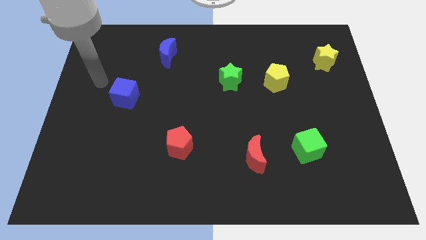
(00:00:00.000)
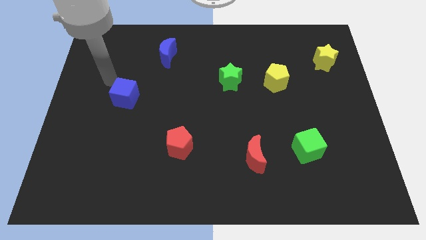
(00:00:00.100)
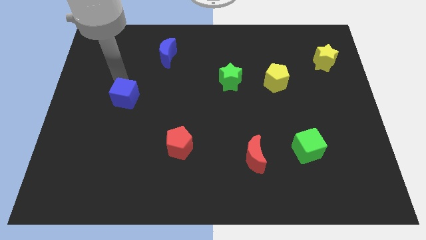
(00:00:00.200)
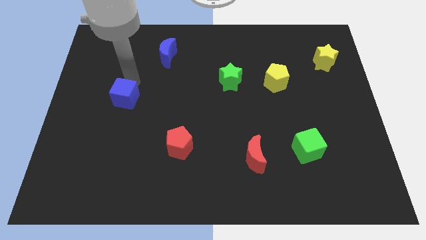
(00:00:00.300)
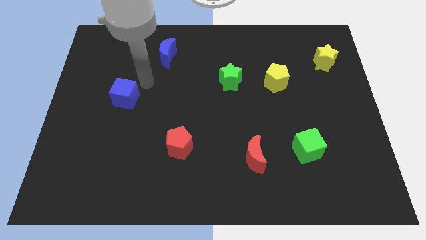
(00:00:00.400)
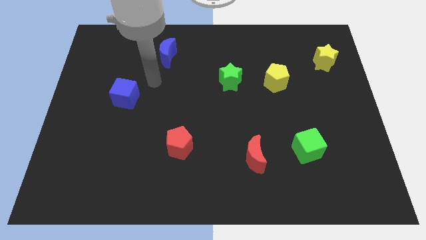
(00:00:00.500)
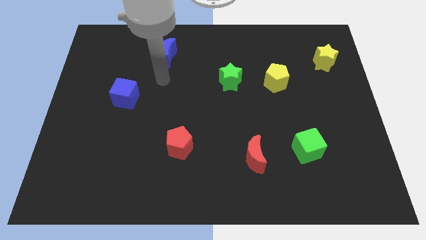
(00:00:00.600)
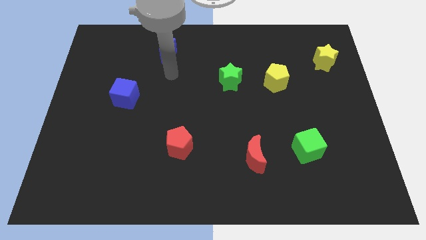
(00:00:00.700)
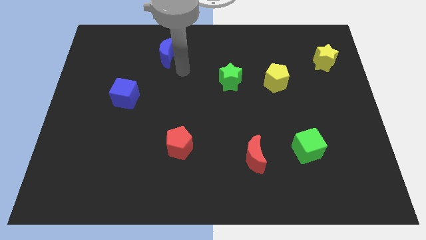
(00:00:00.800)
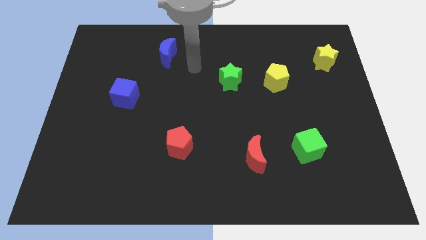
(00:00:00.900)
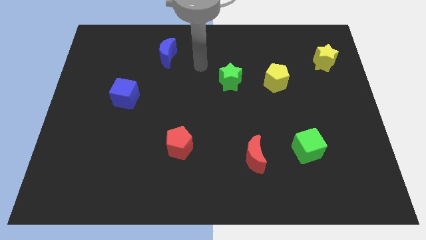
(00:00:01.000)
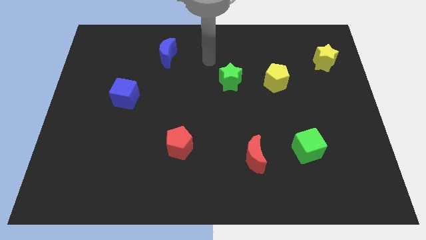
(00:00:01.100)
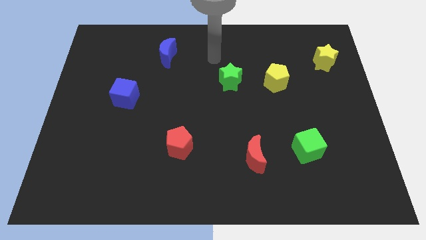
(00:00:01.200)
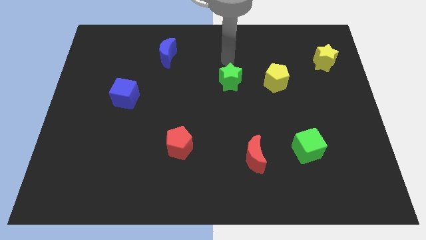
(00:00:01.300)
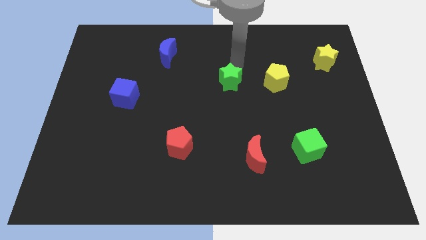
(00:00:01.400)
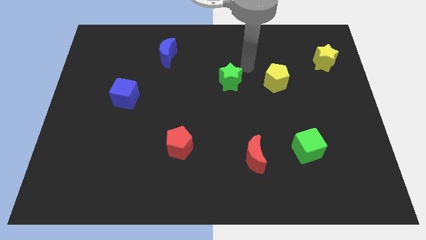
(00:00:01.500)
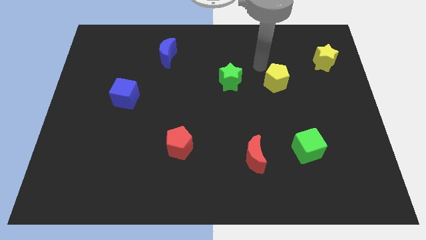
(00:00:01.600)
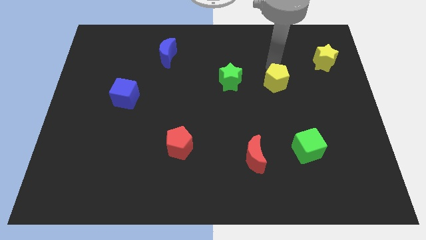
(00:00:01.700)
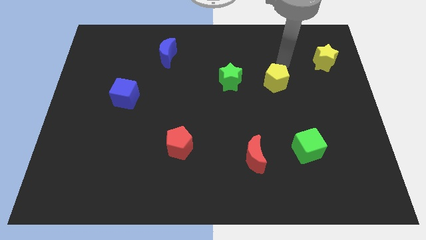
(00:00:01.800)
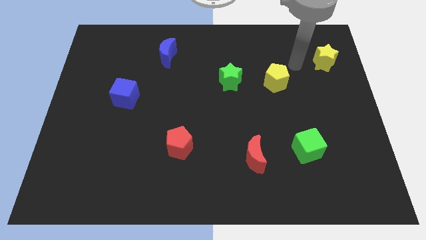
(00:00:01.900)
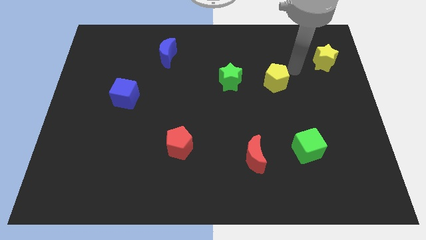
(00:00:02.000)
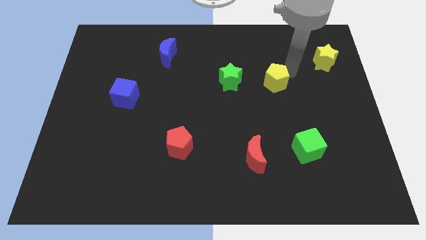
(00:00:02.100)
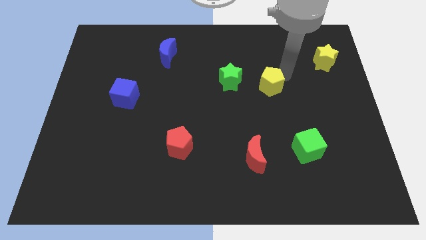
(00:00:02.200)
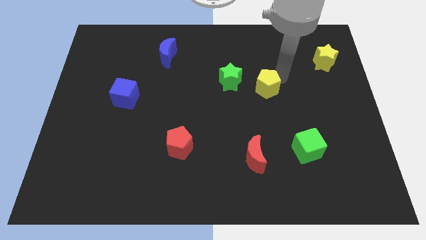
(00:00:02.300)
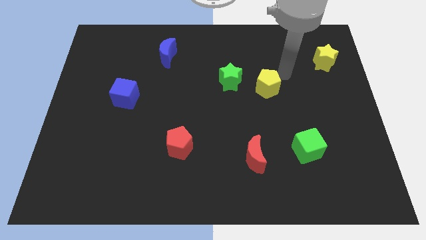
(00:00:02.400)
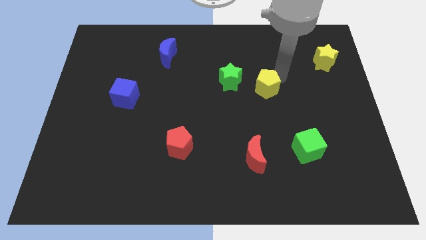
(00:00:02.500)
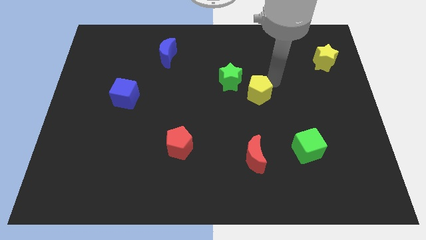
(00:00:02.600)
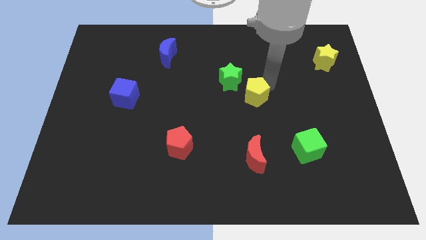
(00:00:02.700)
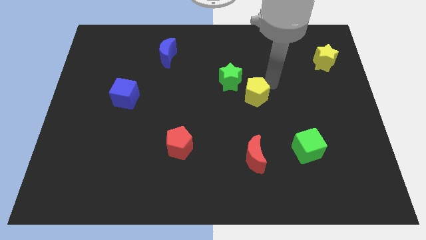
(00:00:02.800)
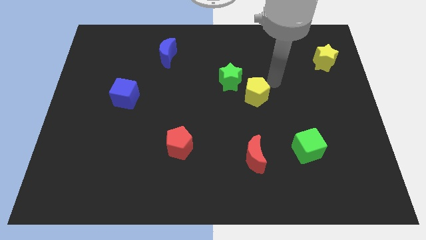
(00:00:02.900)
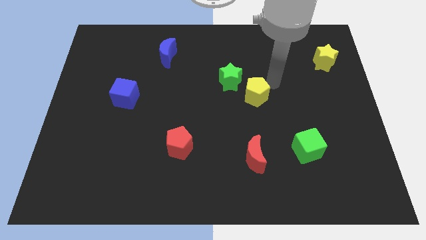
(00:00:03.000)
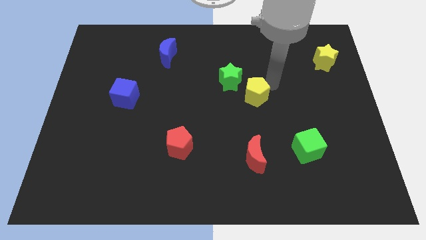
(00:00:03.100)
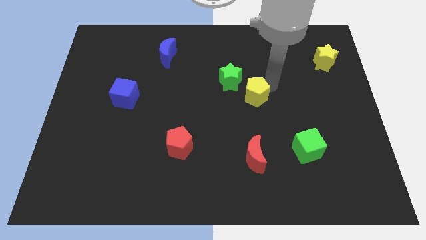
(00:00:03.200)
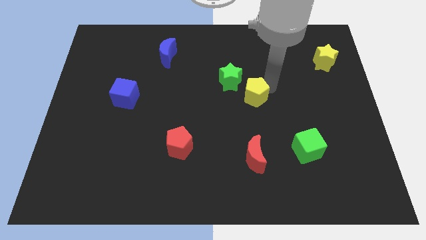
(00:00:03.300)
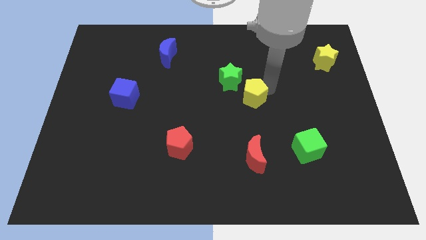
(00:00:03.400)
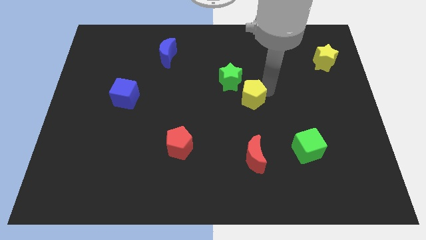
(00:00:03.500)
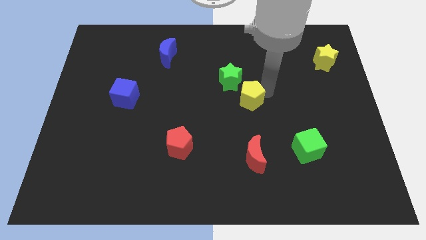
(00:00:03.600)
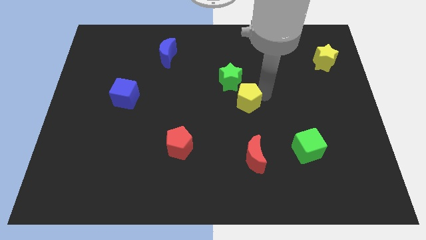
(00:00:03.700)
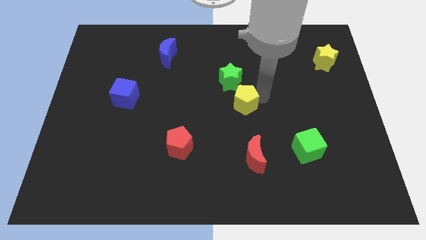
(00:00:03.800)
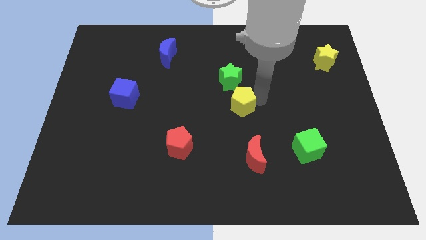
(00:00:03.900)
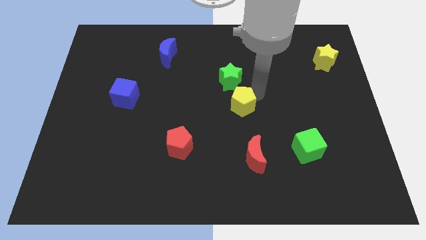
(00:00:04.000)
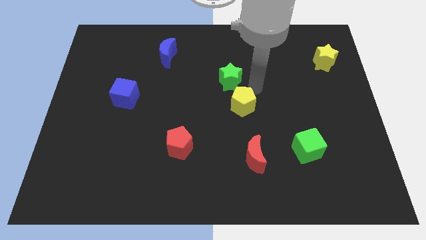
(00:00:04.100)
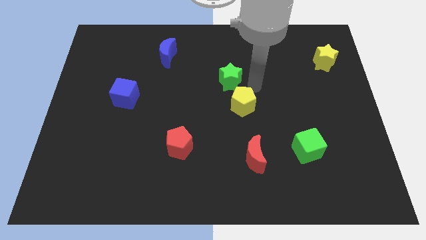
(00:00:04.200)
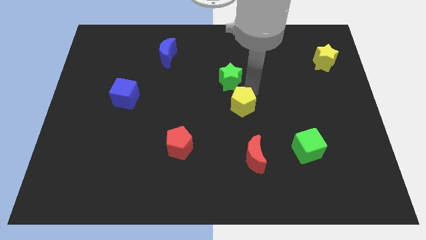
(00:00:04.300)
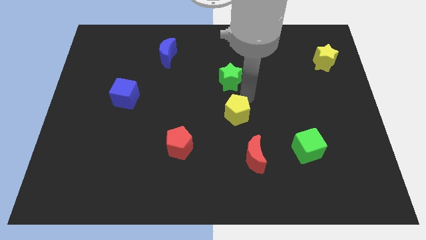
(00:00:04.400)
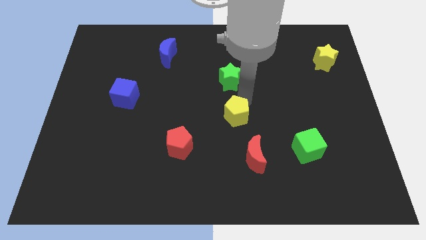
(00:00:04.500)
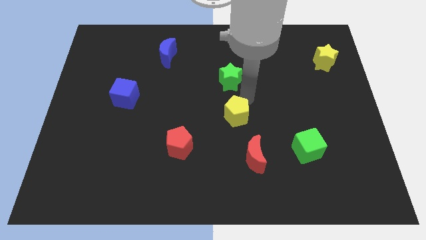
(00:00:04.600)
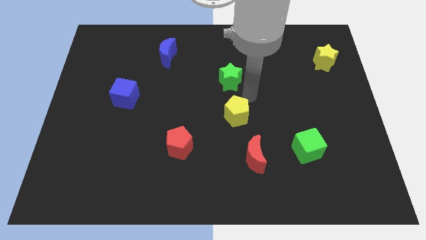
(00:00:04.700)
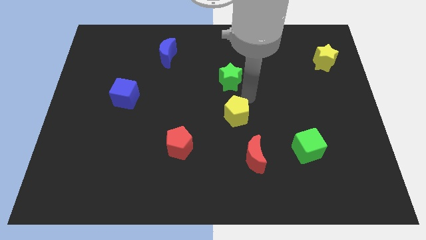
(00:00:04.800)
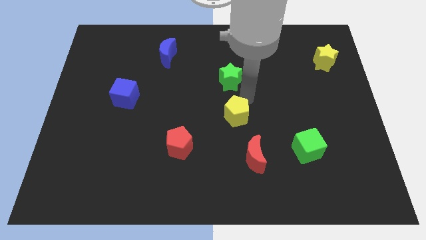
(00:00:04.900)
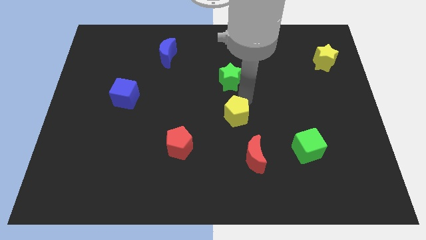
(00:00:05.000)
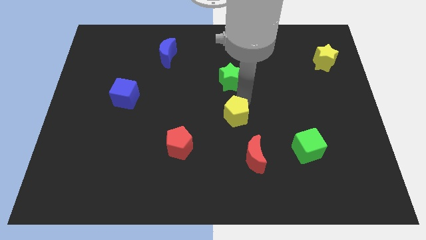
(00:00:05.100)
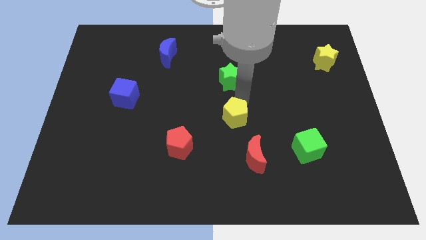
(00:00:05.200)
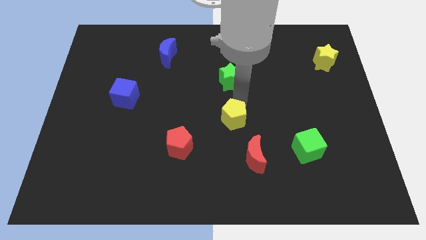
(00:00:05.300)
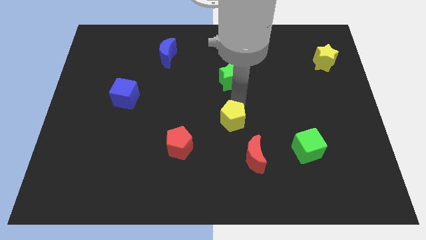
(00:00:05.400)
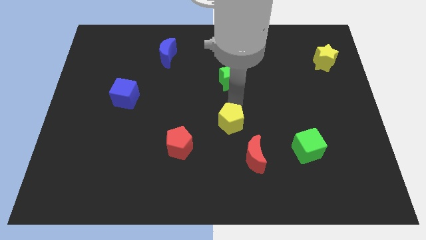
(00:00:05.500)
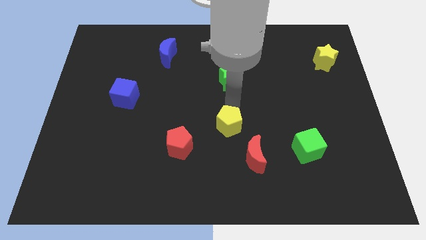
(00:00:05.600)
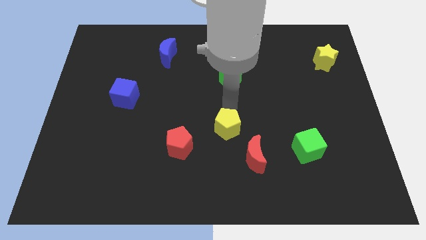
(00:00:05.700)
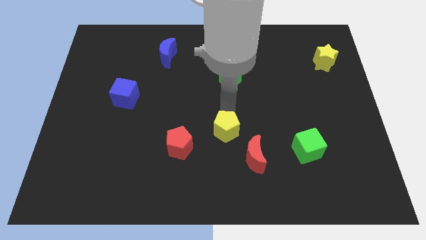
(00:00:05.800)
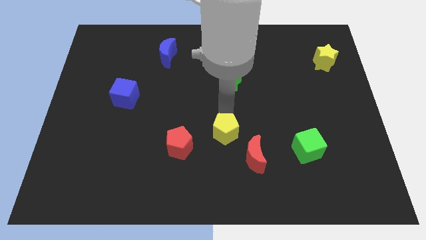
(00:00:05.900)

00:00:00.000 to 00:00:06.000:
slide the yellow pentagon down and then left

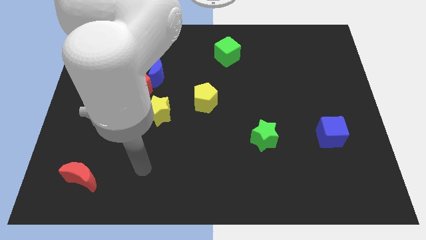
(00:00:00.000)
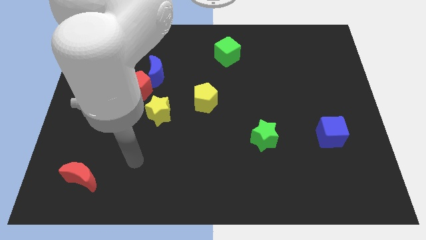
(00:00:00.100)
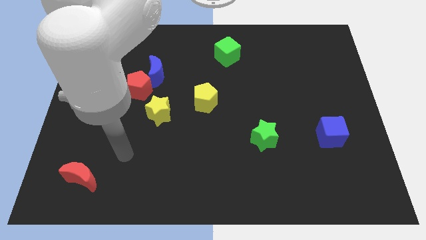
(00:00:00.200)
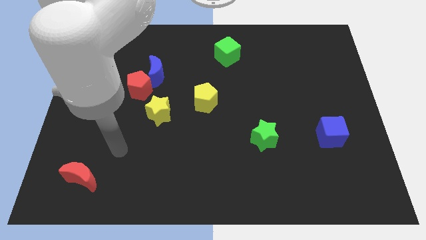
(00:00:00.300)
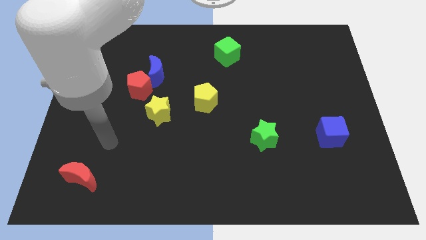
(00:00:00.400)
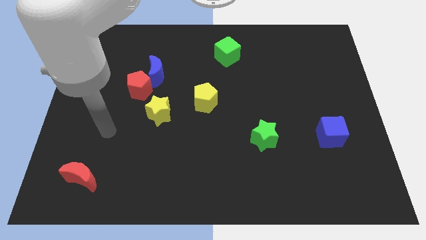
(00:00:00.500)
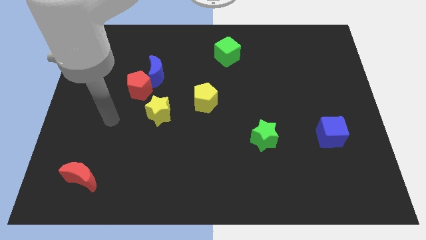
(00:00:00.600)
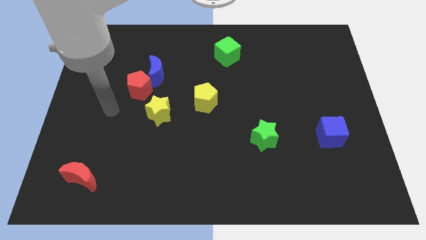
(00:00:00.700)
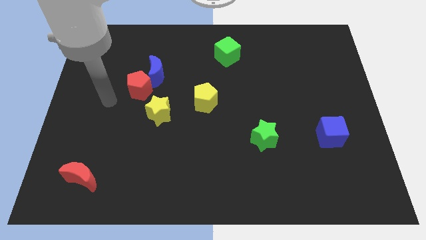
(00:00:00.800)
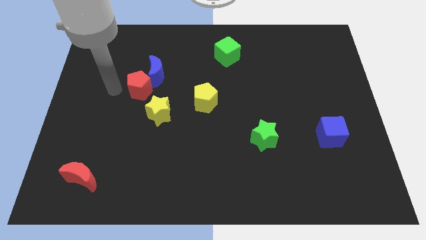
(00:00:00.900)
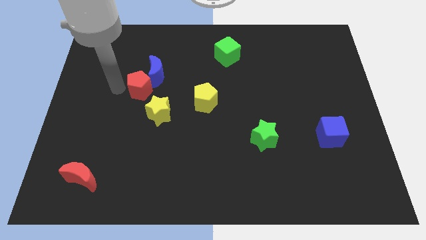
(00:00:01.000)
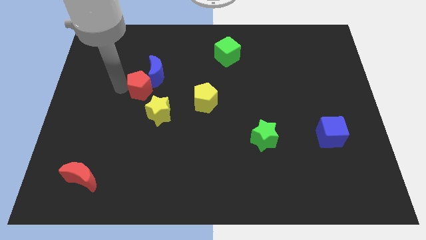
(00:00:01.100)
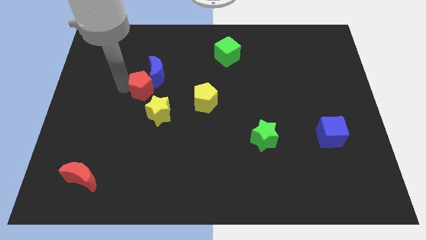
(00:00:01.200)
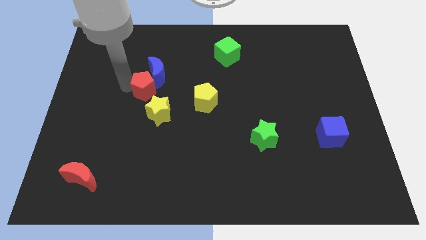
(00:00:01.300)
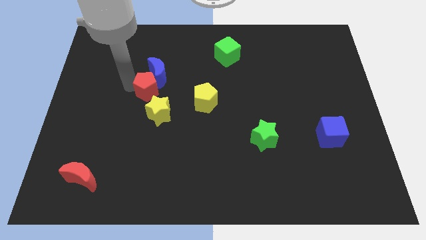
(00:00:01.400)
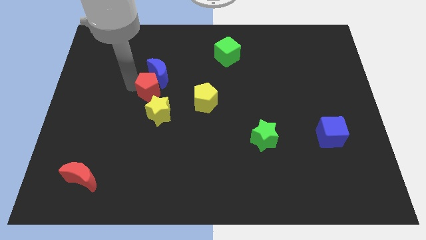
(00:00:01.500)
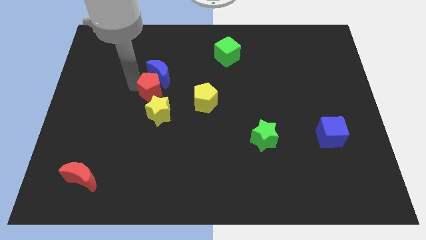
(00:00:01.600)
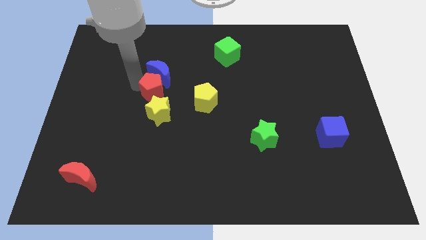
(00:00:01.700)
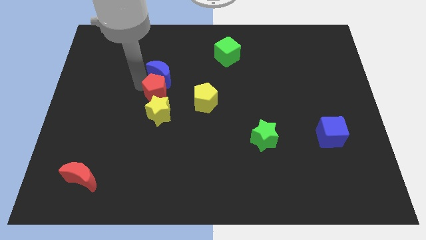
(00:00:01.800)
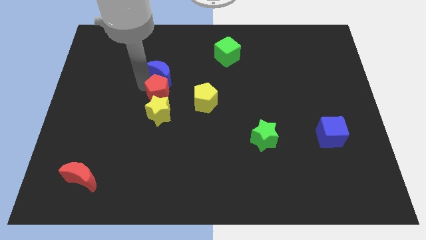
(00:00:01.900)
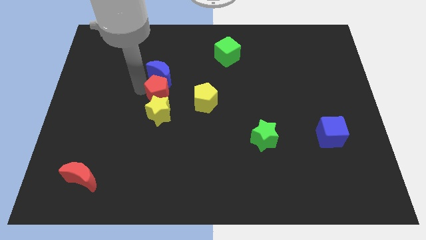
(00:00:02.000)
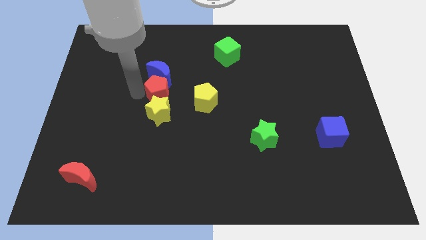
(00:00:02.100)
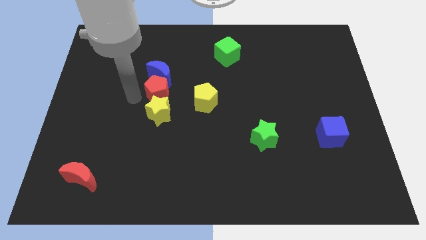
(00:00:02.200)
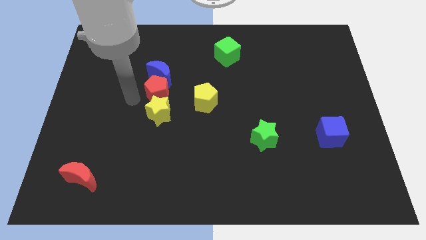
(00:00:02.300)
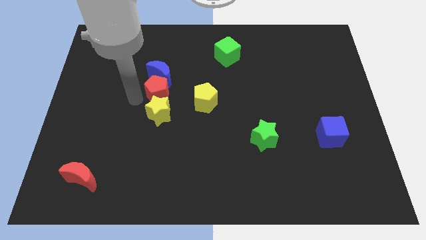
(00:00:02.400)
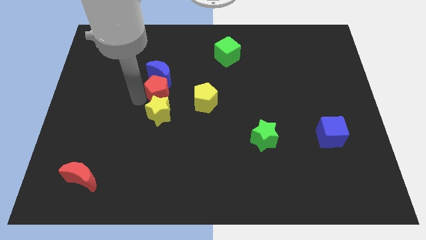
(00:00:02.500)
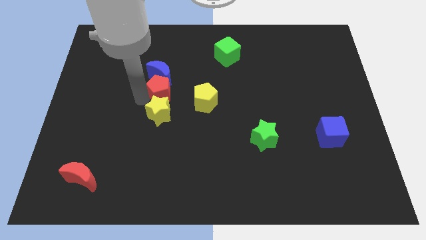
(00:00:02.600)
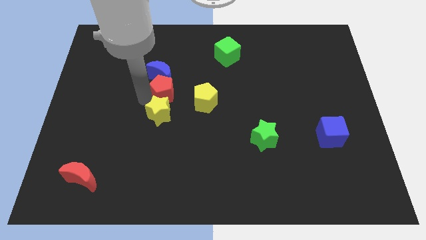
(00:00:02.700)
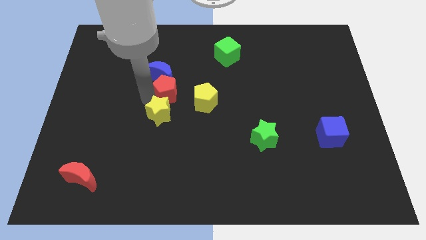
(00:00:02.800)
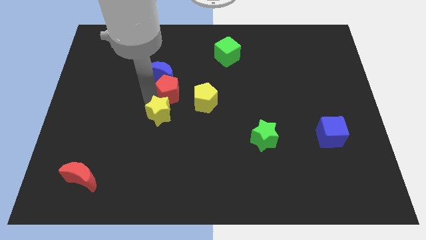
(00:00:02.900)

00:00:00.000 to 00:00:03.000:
push the red pentagon to the right somewhat
